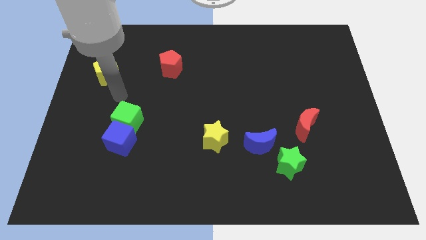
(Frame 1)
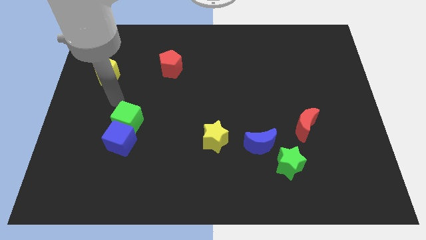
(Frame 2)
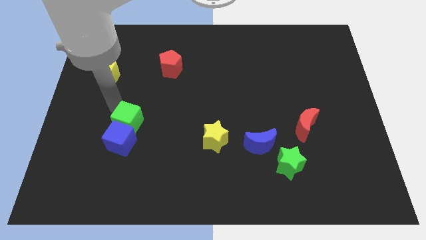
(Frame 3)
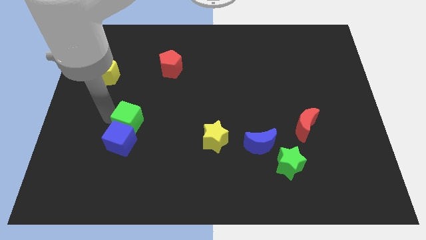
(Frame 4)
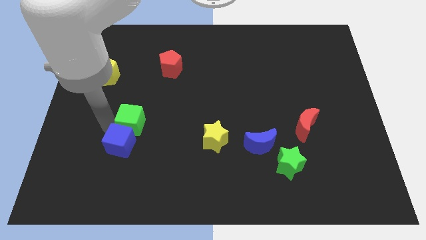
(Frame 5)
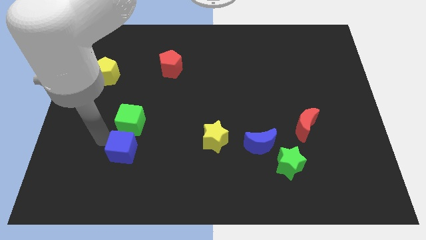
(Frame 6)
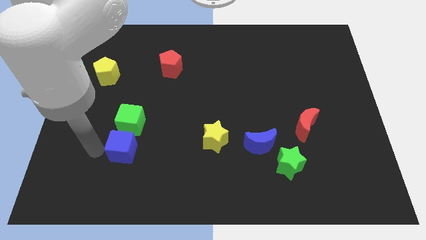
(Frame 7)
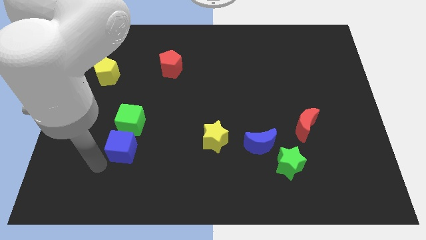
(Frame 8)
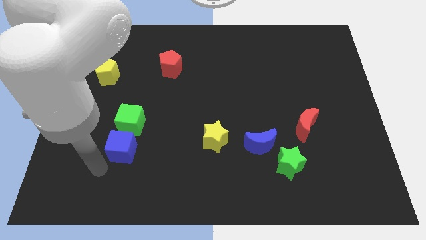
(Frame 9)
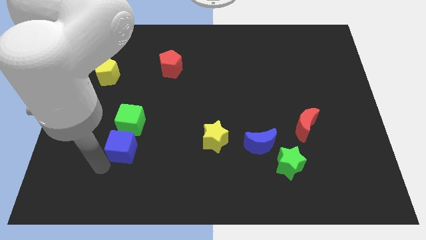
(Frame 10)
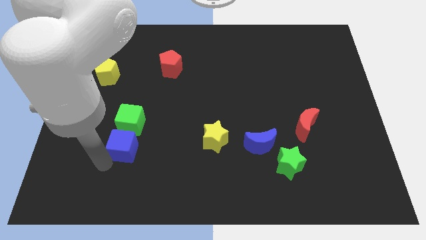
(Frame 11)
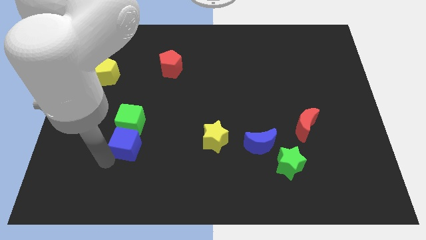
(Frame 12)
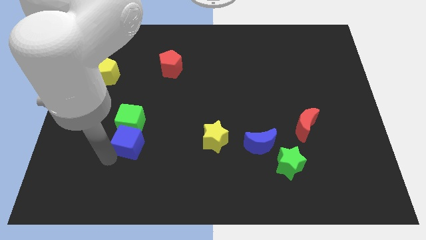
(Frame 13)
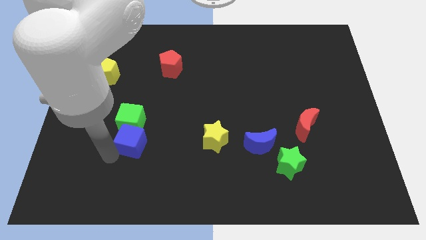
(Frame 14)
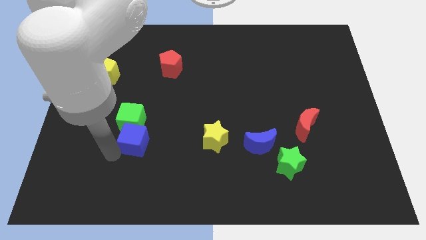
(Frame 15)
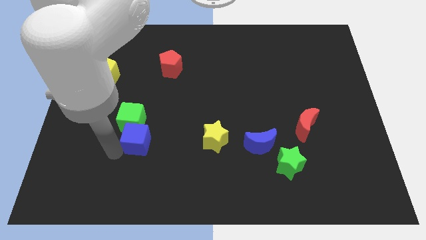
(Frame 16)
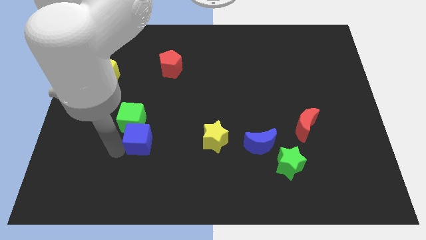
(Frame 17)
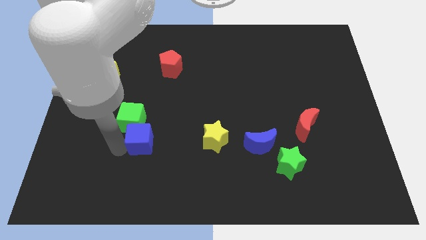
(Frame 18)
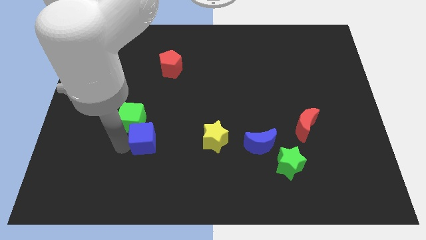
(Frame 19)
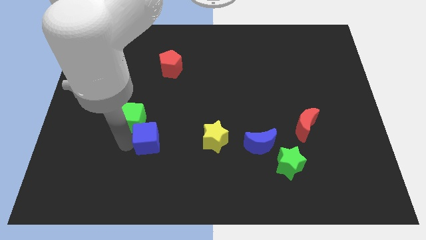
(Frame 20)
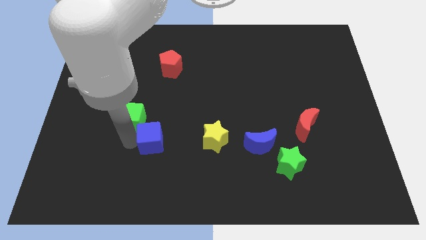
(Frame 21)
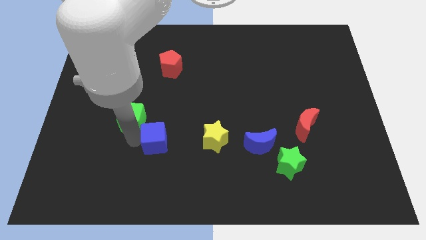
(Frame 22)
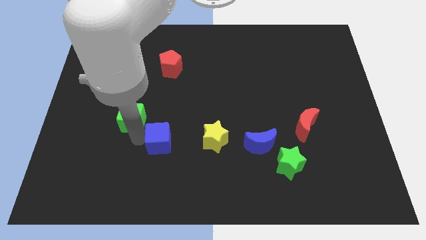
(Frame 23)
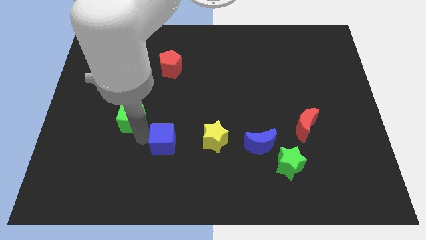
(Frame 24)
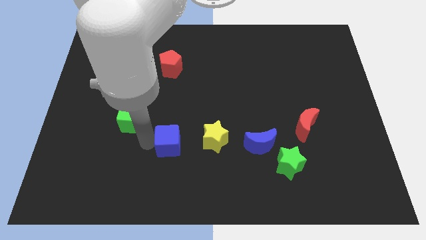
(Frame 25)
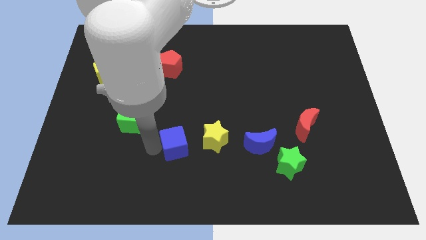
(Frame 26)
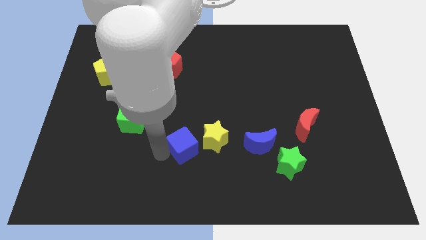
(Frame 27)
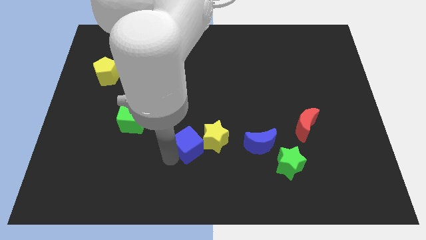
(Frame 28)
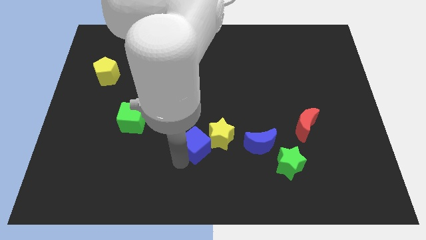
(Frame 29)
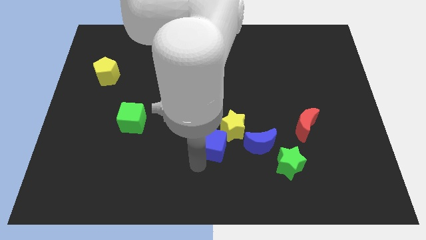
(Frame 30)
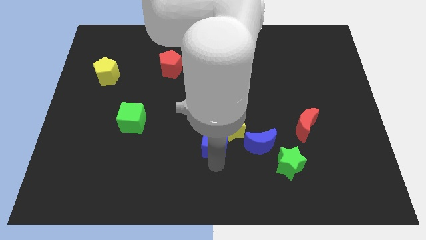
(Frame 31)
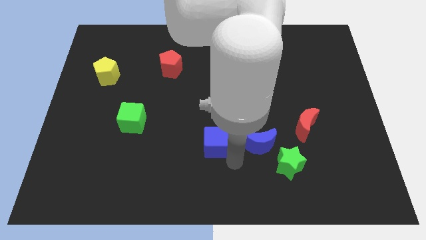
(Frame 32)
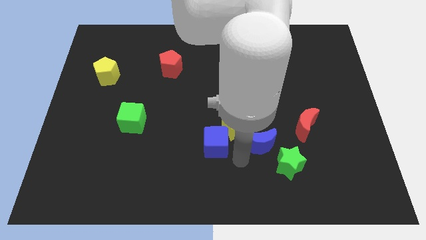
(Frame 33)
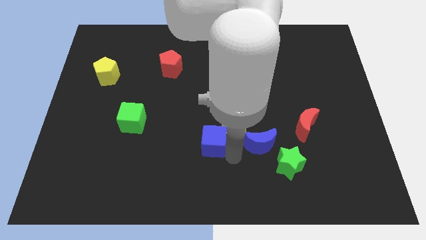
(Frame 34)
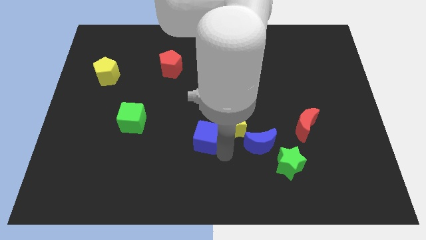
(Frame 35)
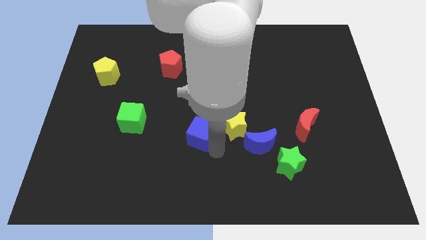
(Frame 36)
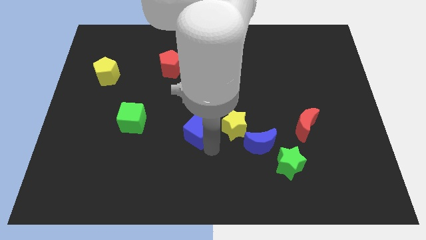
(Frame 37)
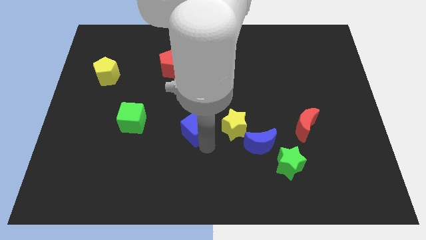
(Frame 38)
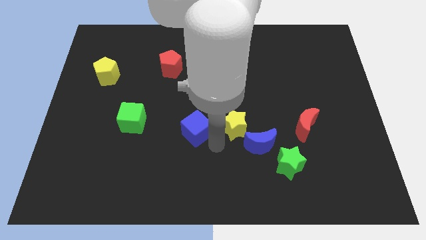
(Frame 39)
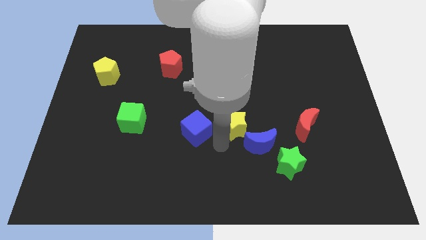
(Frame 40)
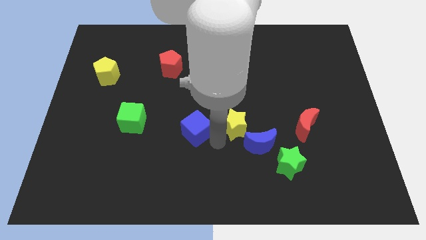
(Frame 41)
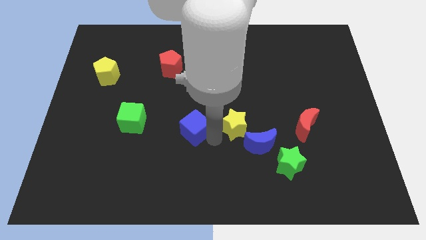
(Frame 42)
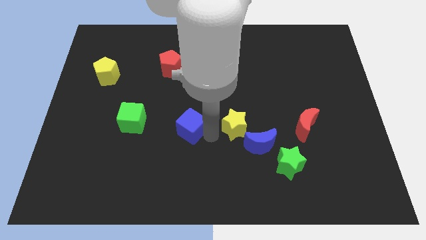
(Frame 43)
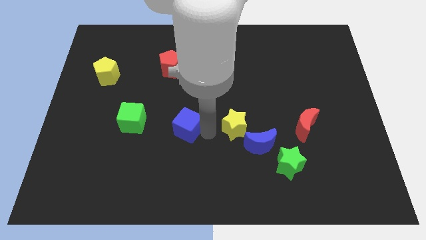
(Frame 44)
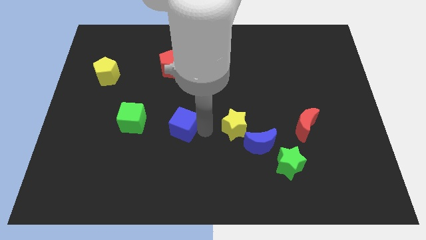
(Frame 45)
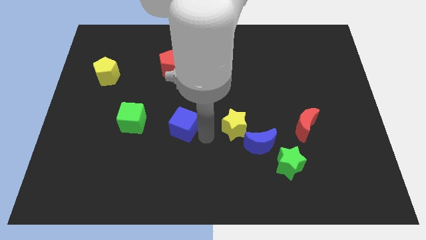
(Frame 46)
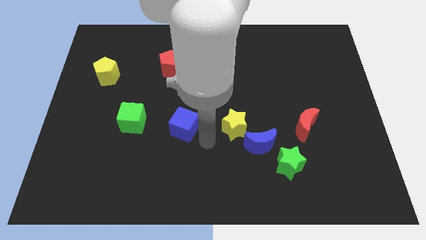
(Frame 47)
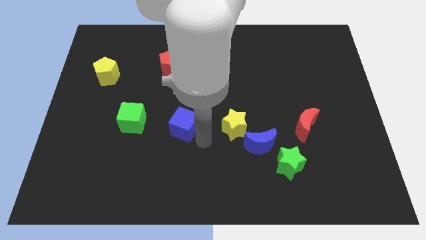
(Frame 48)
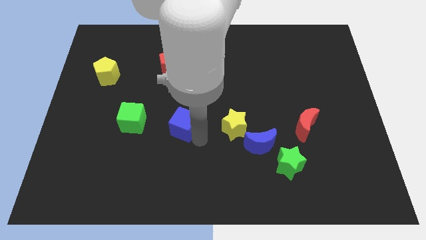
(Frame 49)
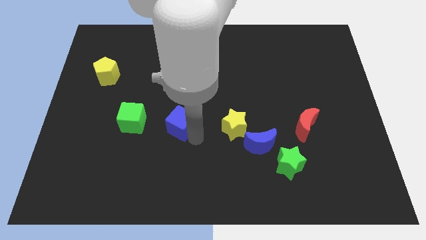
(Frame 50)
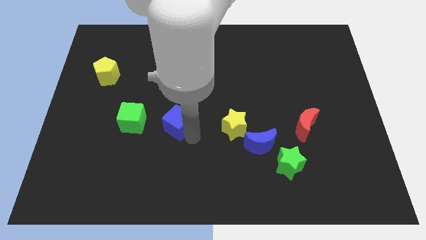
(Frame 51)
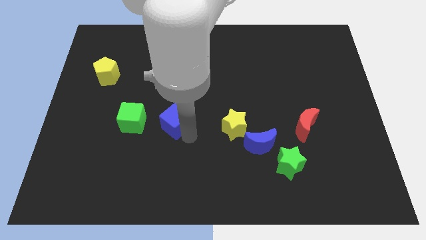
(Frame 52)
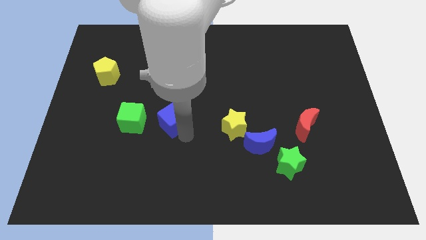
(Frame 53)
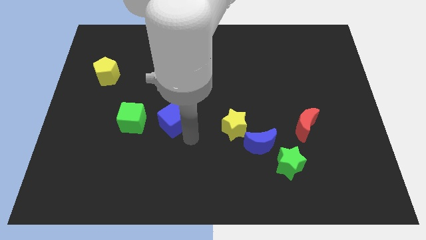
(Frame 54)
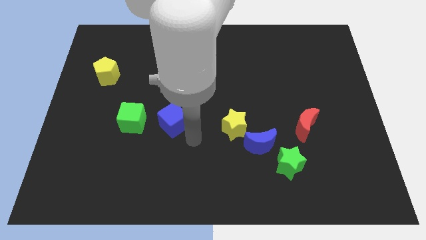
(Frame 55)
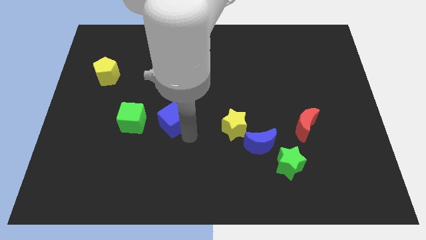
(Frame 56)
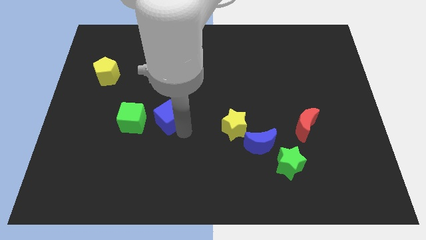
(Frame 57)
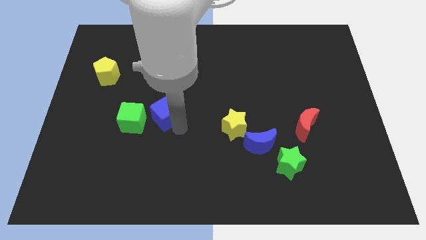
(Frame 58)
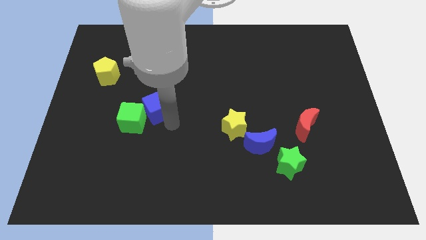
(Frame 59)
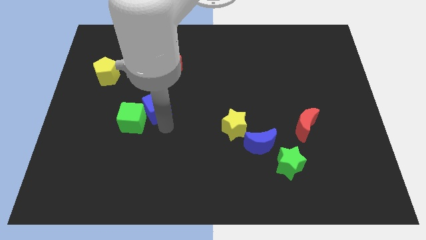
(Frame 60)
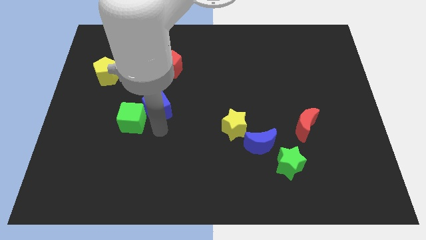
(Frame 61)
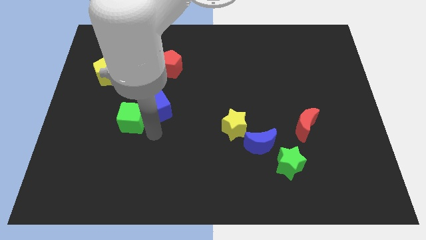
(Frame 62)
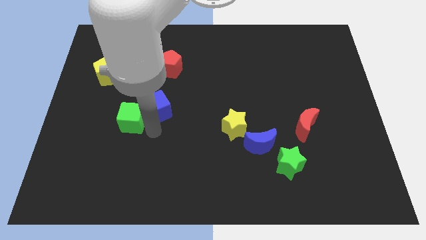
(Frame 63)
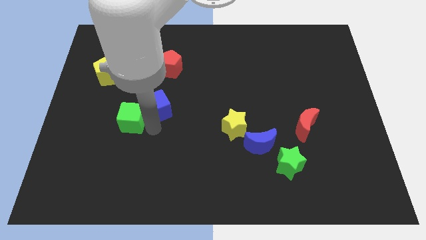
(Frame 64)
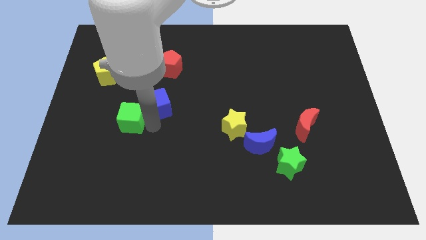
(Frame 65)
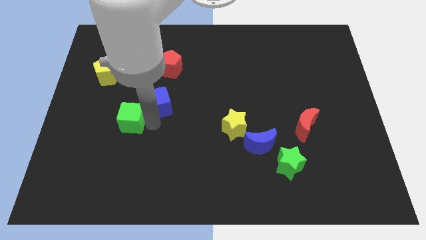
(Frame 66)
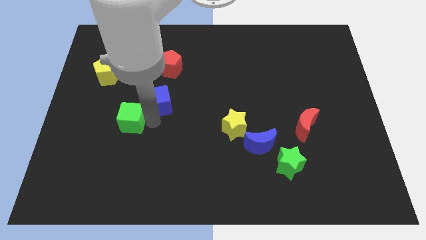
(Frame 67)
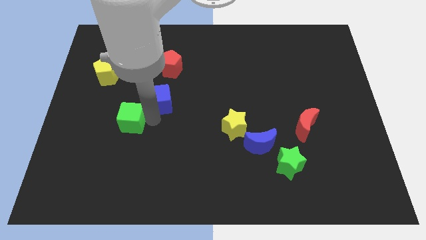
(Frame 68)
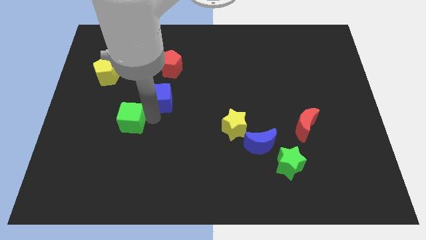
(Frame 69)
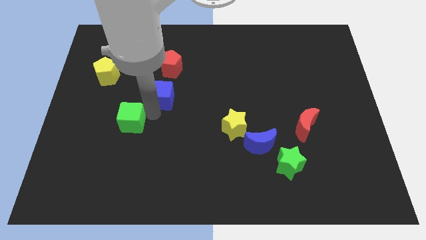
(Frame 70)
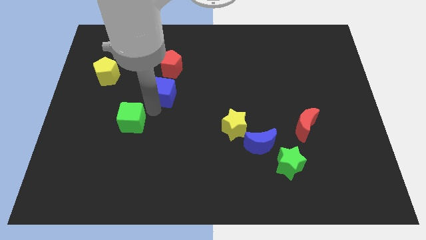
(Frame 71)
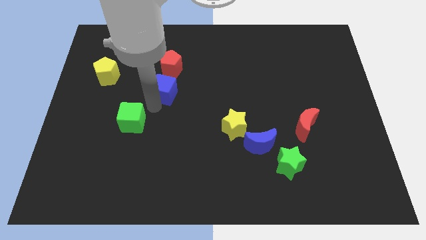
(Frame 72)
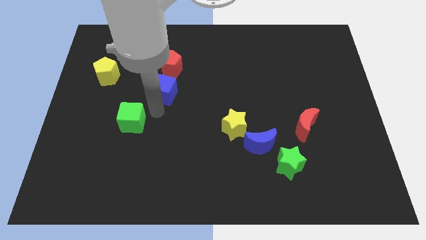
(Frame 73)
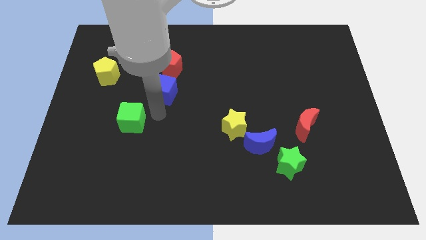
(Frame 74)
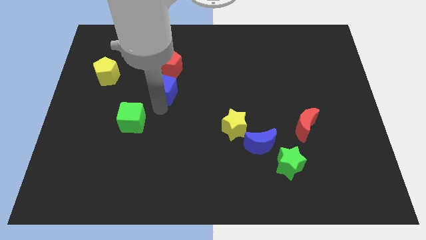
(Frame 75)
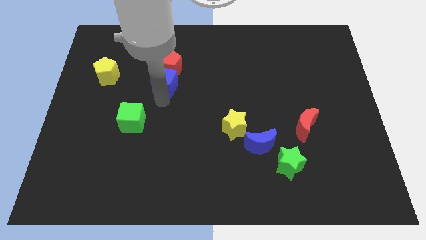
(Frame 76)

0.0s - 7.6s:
move the blue cube to the red pentagon
